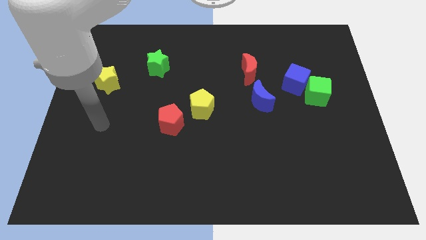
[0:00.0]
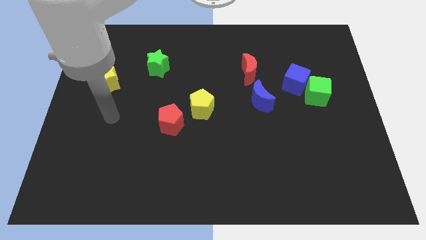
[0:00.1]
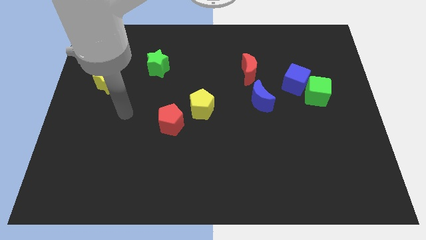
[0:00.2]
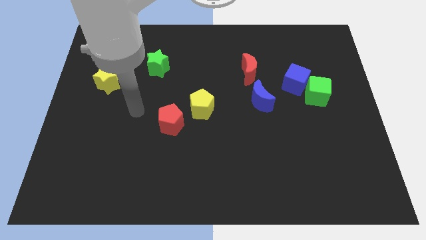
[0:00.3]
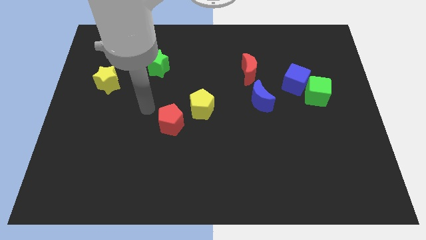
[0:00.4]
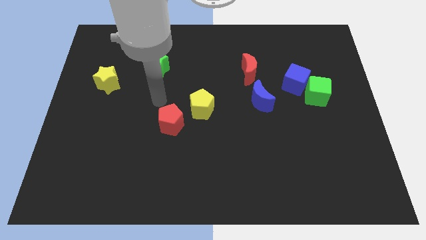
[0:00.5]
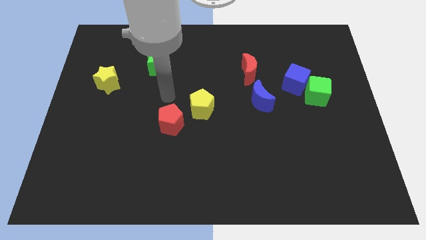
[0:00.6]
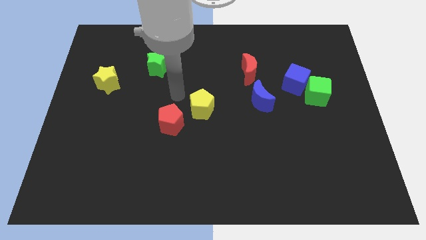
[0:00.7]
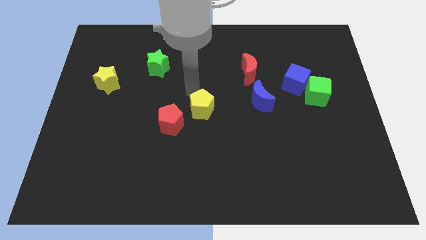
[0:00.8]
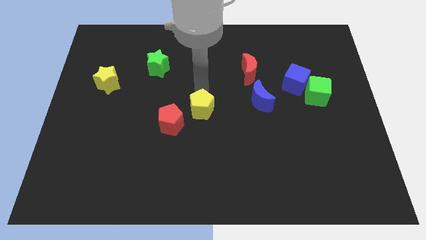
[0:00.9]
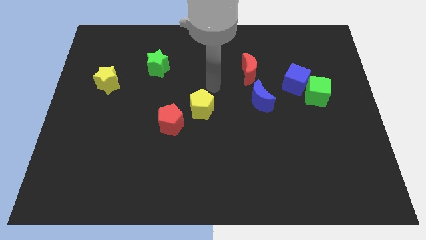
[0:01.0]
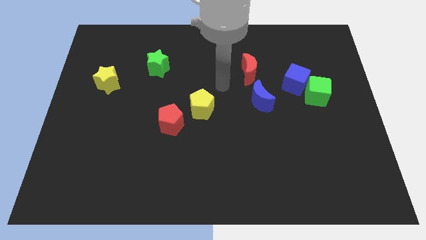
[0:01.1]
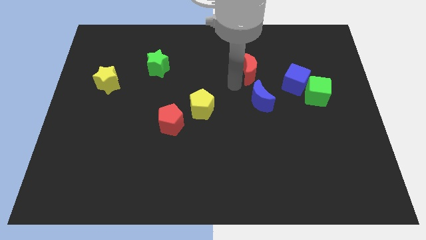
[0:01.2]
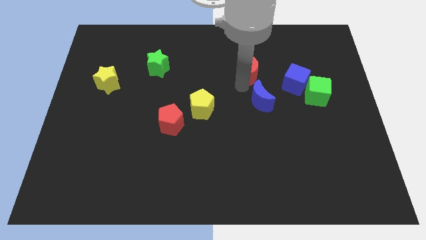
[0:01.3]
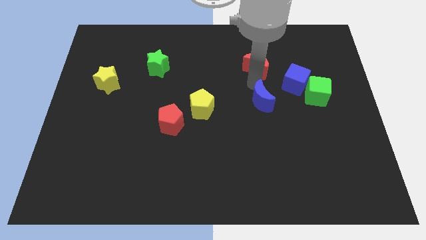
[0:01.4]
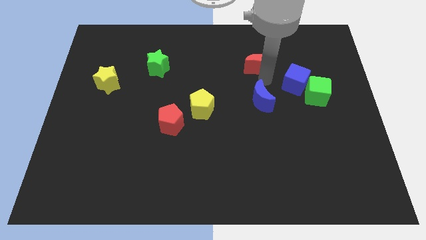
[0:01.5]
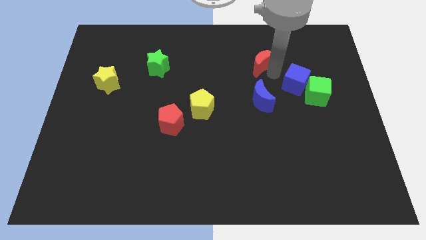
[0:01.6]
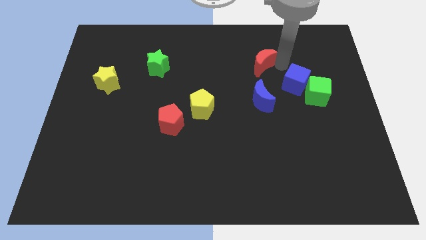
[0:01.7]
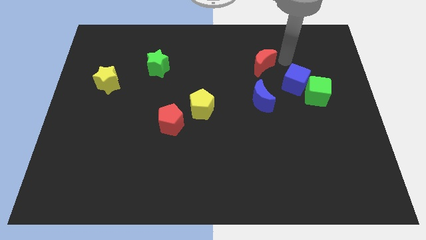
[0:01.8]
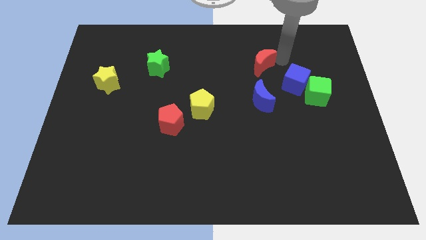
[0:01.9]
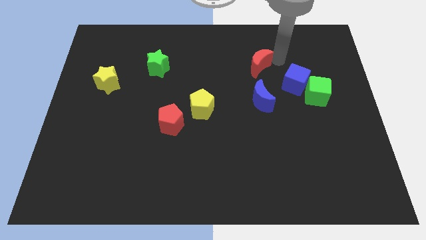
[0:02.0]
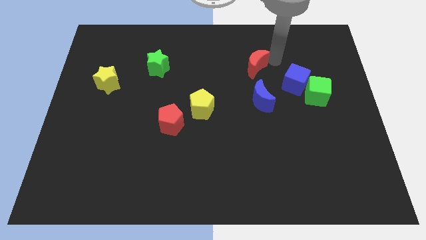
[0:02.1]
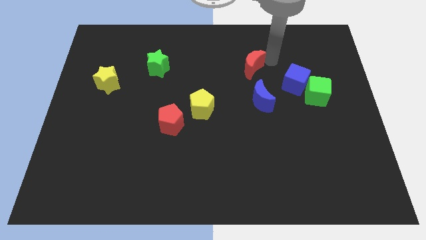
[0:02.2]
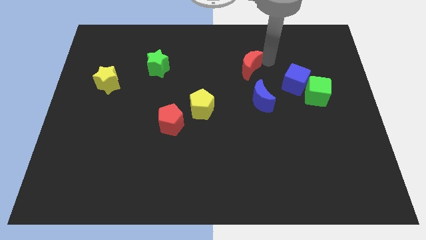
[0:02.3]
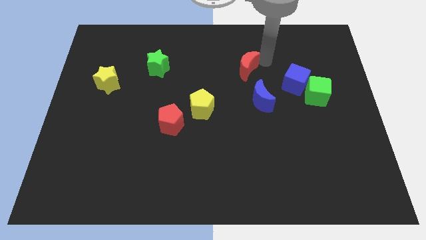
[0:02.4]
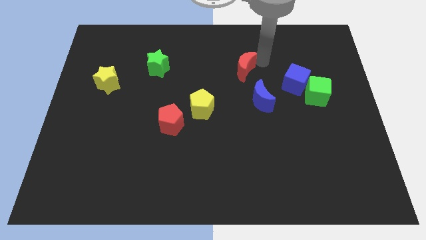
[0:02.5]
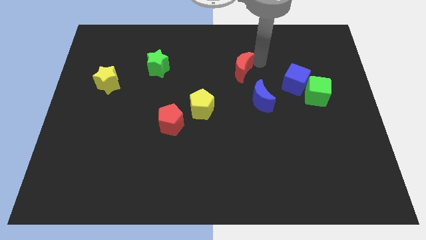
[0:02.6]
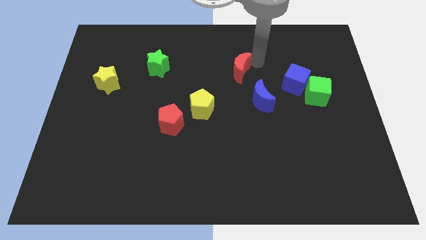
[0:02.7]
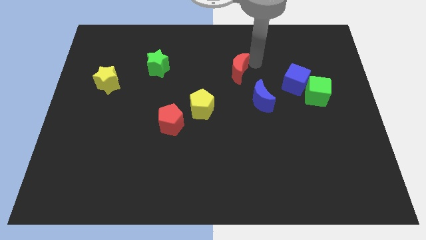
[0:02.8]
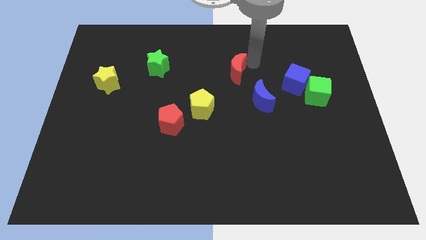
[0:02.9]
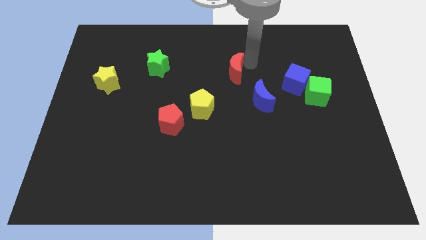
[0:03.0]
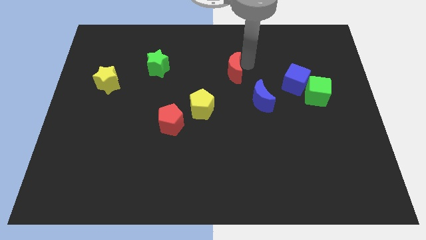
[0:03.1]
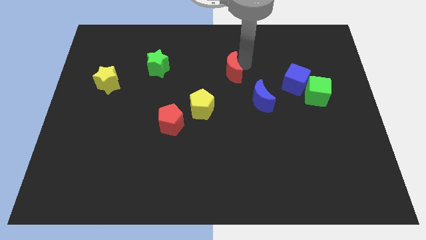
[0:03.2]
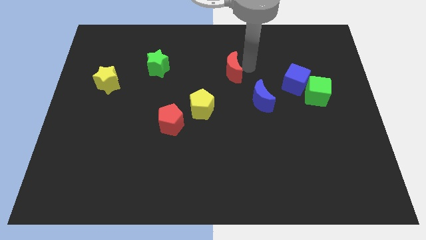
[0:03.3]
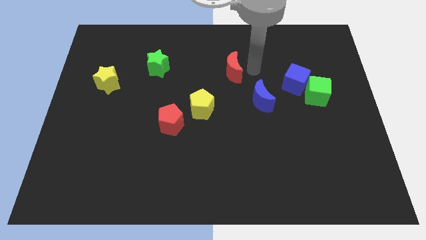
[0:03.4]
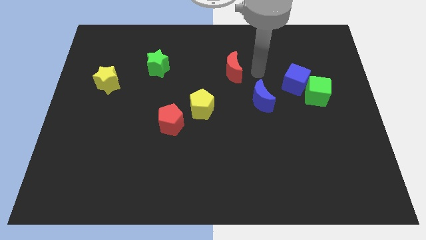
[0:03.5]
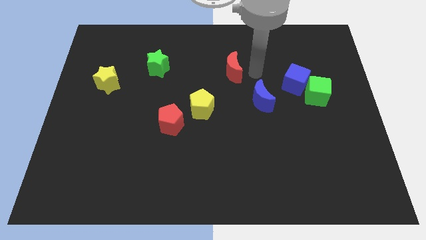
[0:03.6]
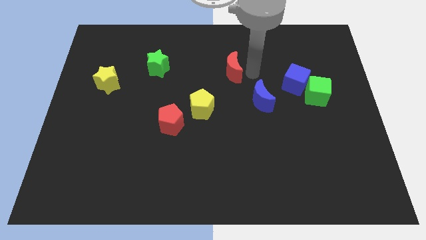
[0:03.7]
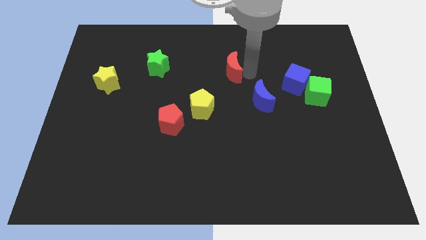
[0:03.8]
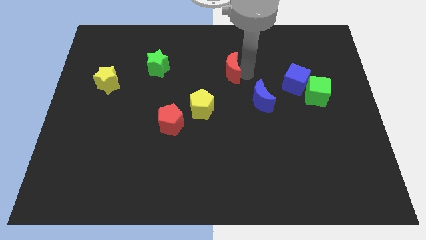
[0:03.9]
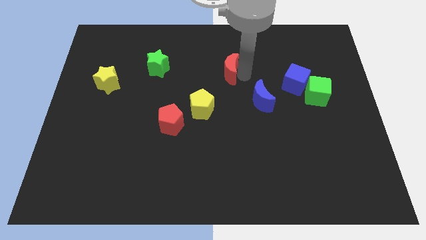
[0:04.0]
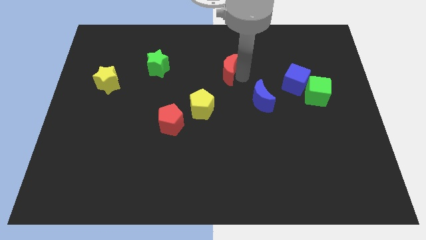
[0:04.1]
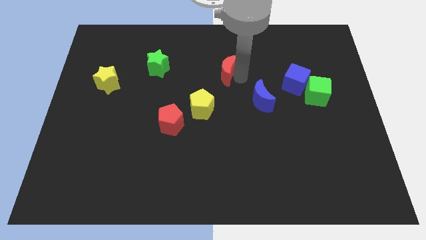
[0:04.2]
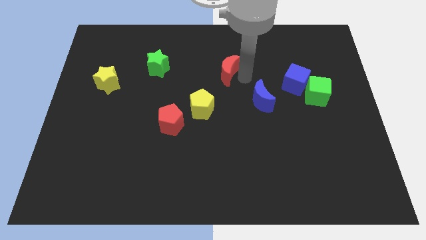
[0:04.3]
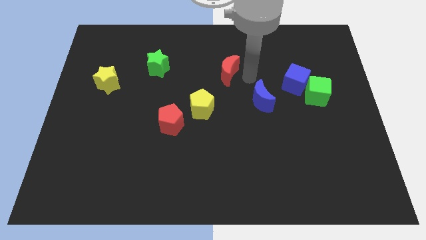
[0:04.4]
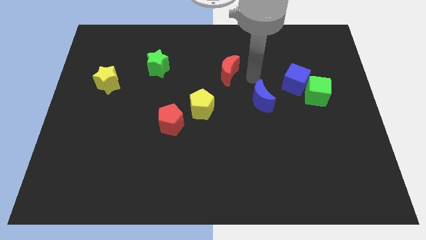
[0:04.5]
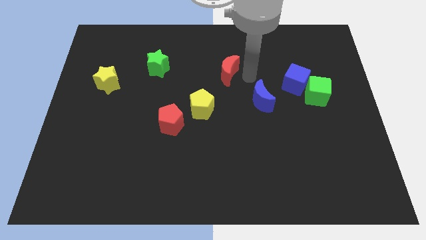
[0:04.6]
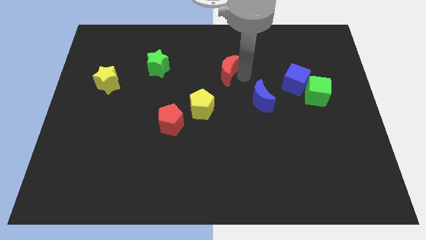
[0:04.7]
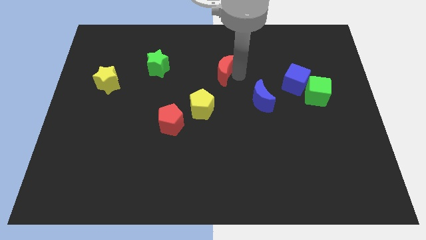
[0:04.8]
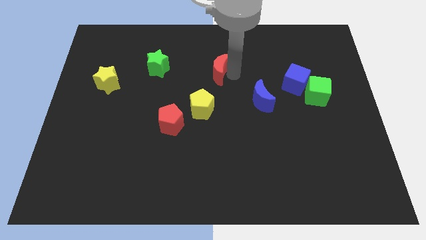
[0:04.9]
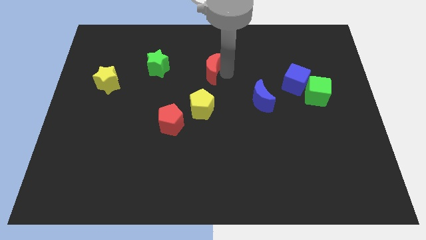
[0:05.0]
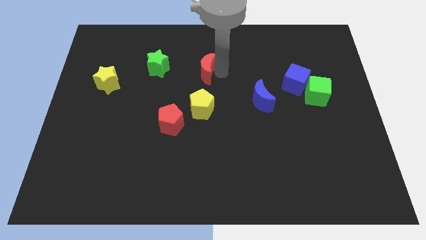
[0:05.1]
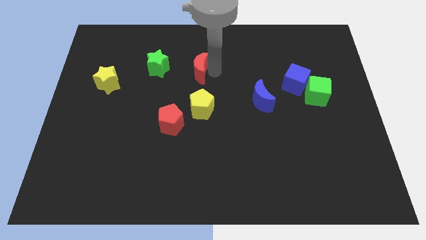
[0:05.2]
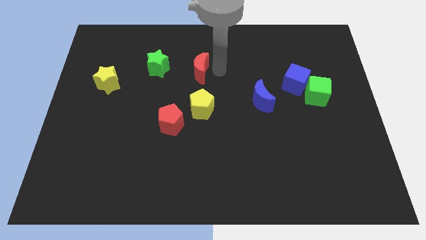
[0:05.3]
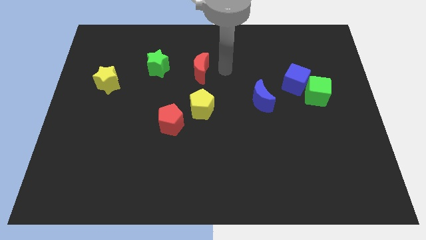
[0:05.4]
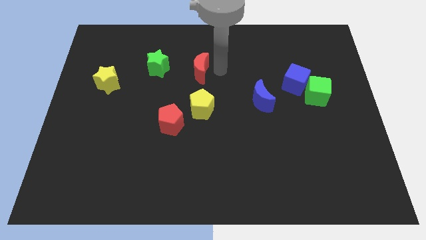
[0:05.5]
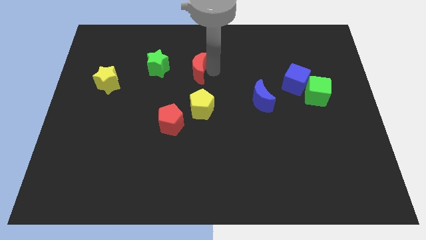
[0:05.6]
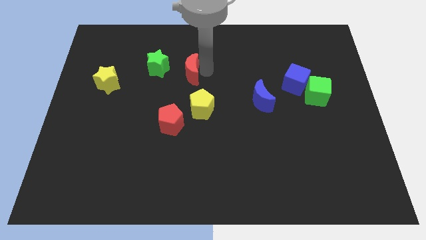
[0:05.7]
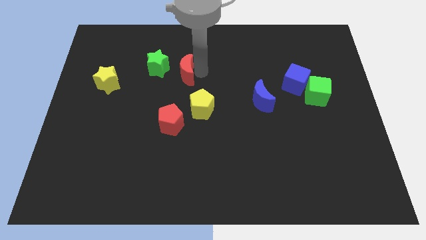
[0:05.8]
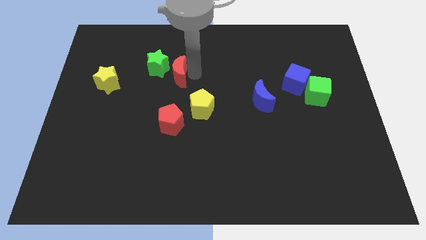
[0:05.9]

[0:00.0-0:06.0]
move the red moon towards the green star

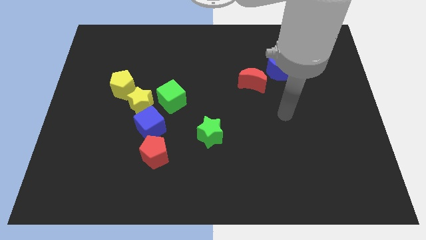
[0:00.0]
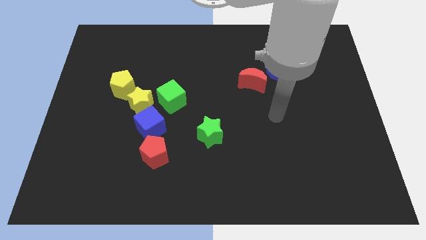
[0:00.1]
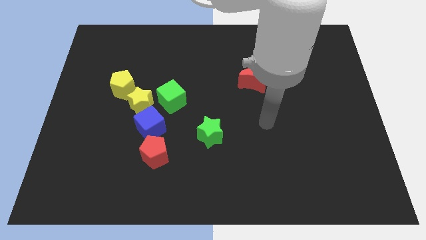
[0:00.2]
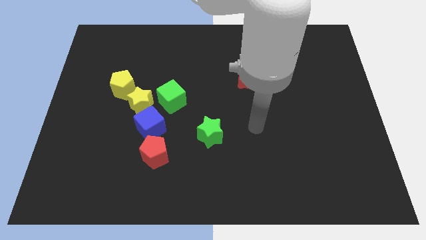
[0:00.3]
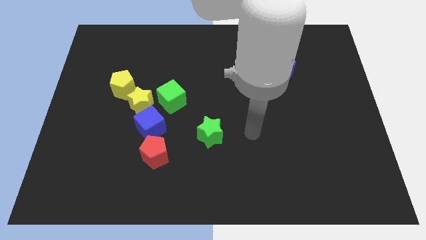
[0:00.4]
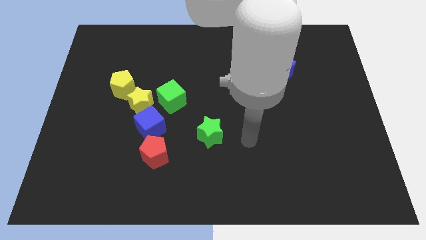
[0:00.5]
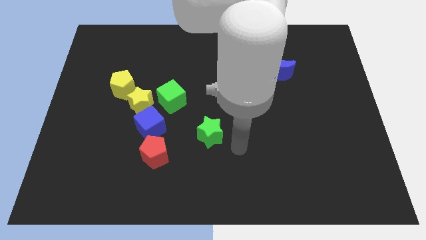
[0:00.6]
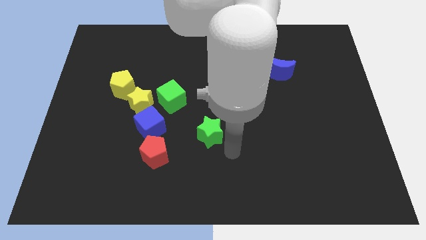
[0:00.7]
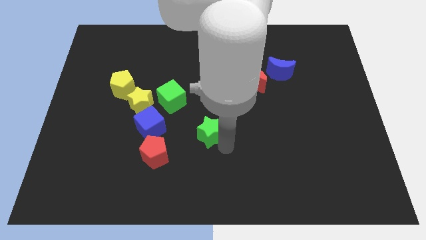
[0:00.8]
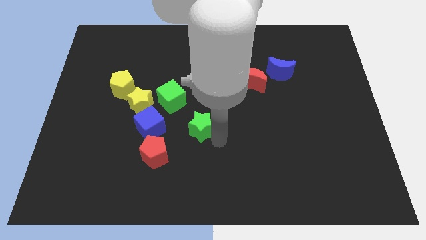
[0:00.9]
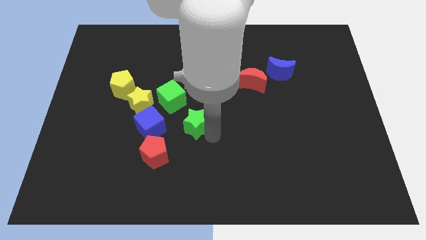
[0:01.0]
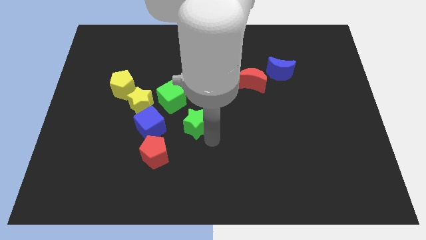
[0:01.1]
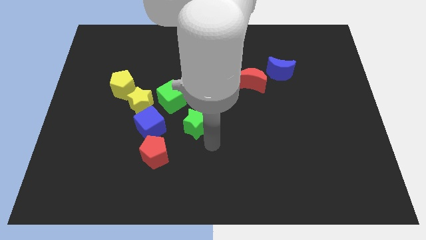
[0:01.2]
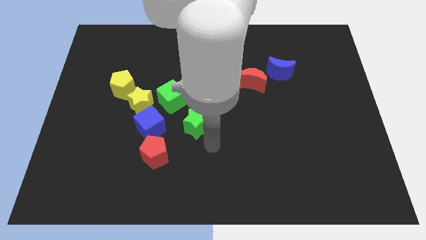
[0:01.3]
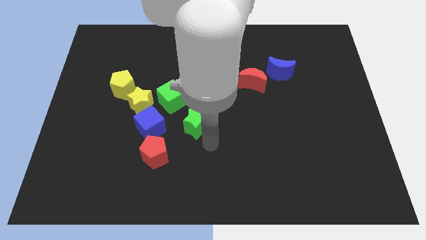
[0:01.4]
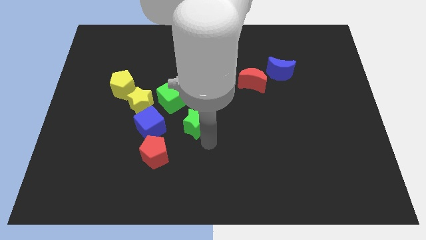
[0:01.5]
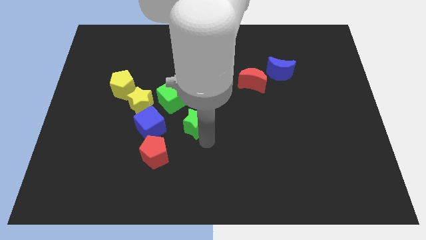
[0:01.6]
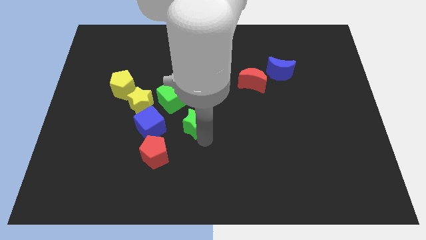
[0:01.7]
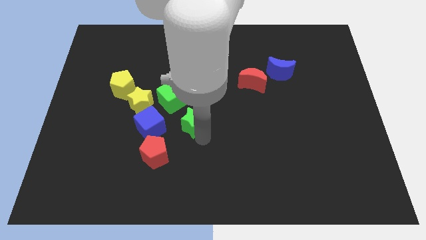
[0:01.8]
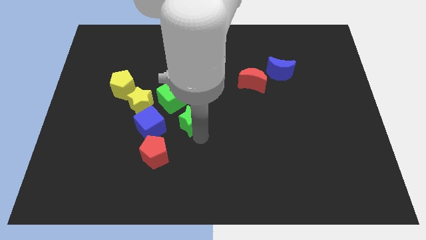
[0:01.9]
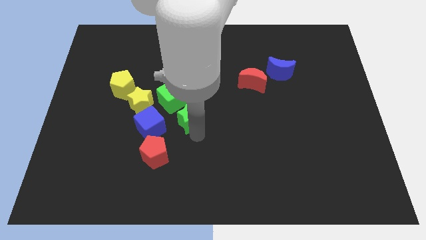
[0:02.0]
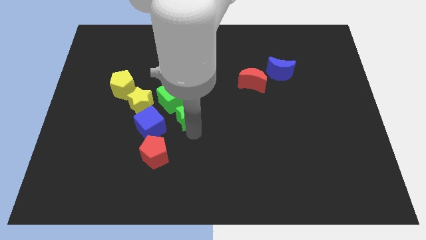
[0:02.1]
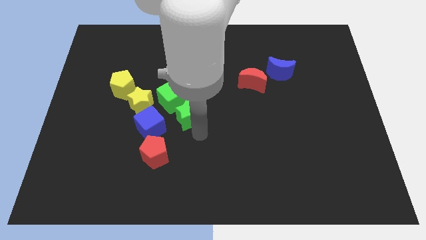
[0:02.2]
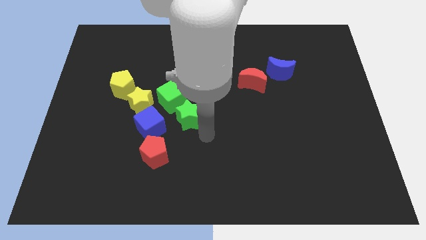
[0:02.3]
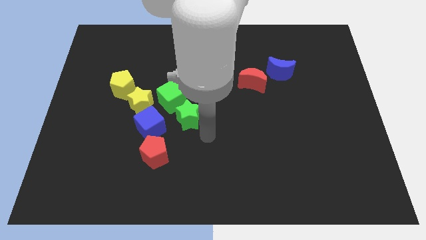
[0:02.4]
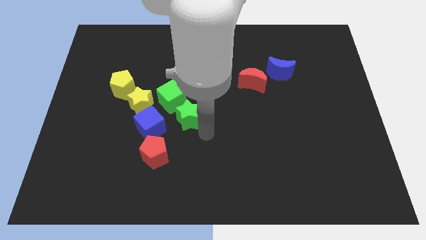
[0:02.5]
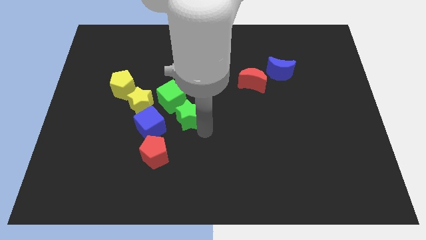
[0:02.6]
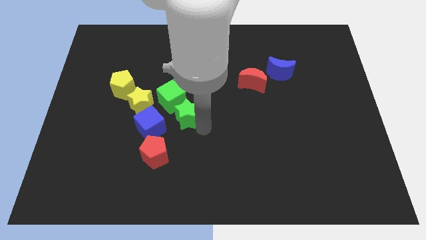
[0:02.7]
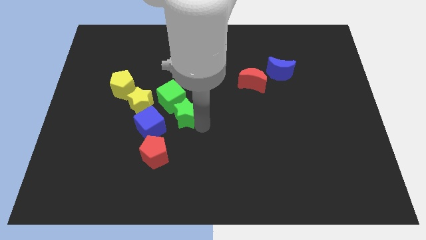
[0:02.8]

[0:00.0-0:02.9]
move the green star to the green cube
